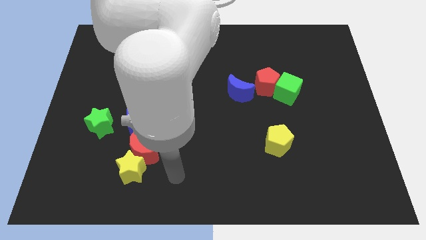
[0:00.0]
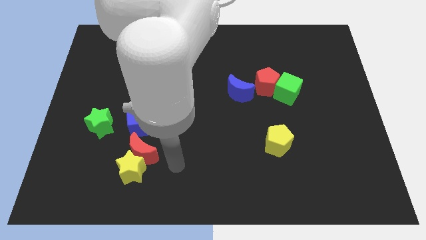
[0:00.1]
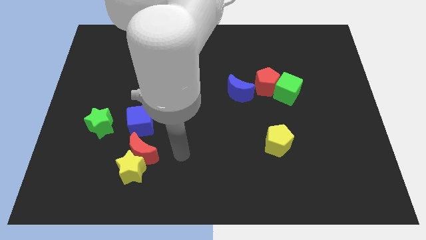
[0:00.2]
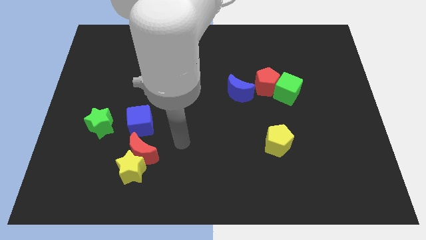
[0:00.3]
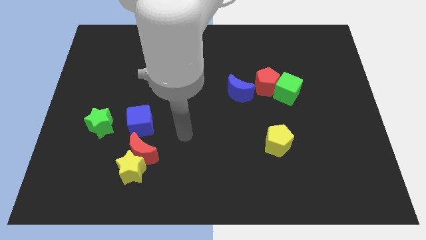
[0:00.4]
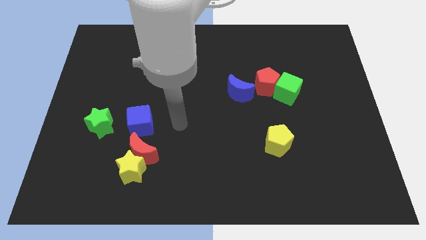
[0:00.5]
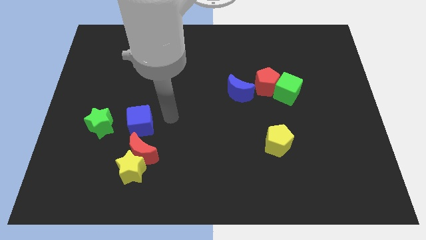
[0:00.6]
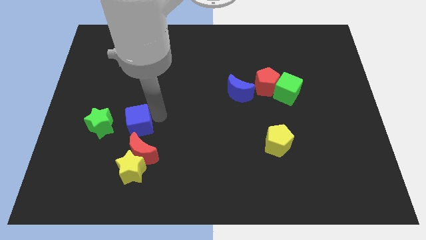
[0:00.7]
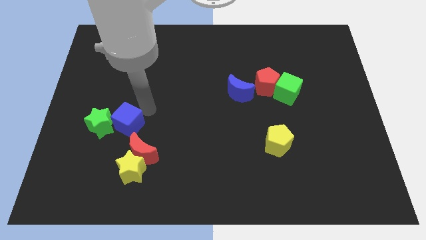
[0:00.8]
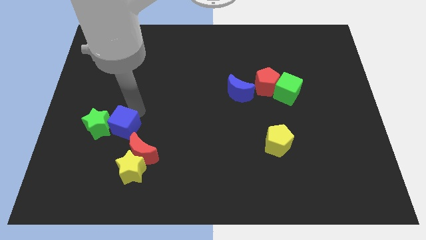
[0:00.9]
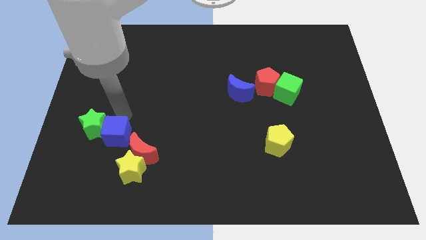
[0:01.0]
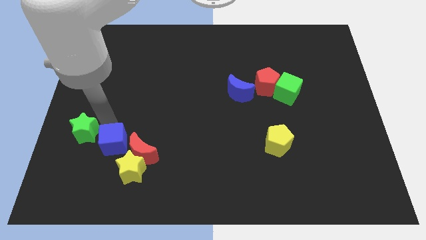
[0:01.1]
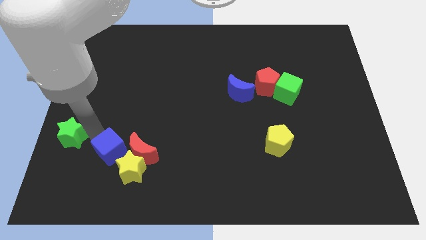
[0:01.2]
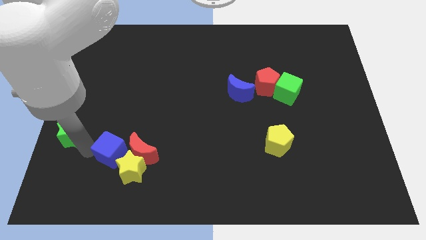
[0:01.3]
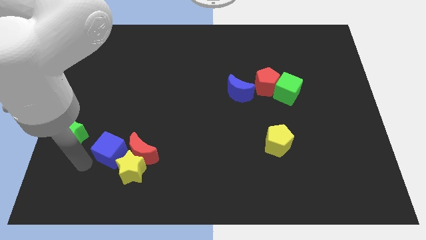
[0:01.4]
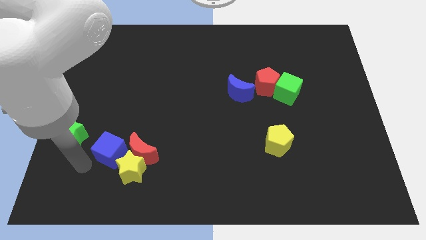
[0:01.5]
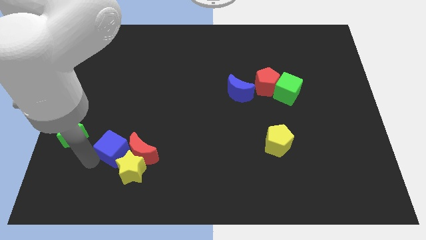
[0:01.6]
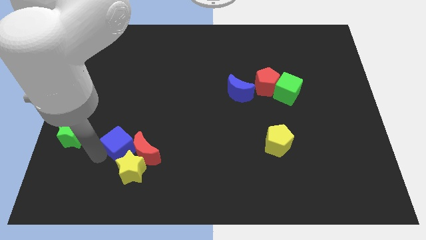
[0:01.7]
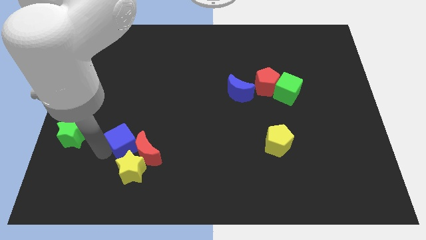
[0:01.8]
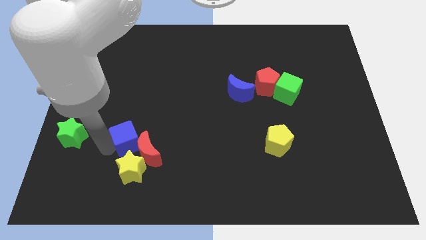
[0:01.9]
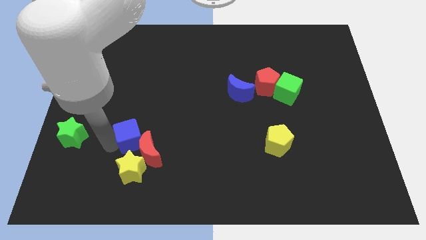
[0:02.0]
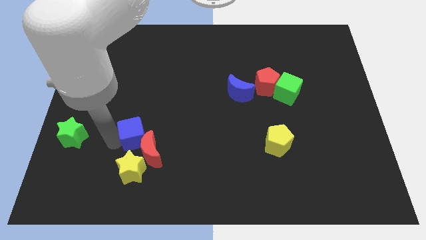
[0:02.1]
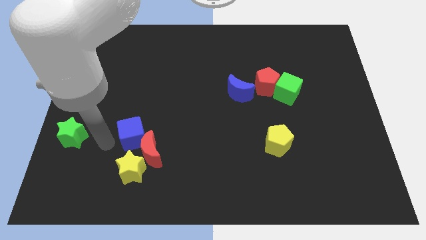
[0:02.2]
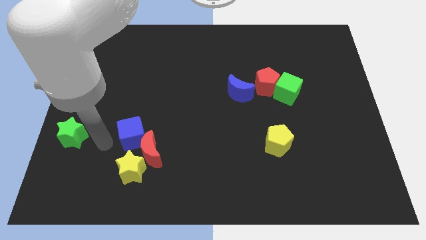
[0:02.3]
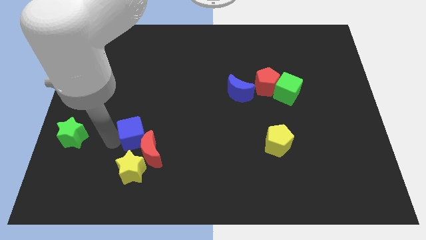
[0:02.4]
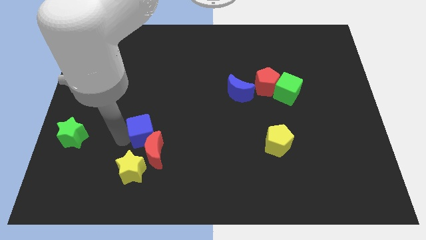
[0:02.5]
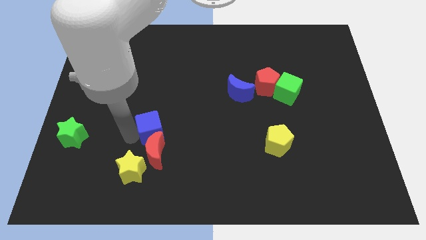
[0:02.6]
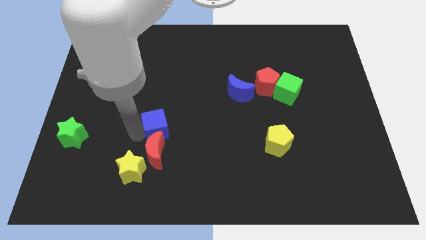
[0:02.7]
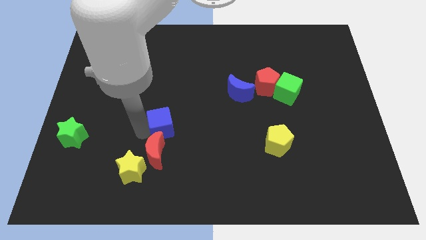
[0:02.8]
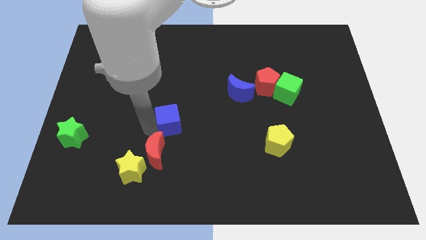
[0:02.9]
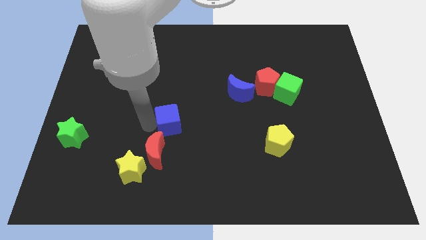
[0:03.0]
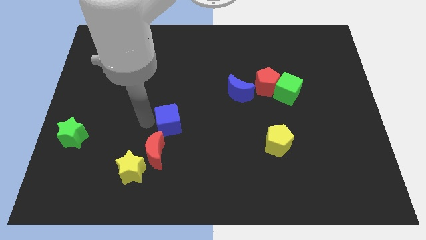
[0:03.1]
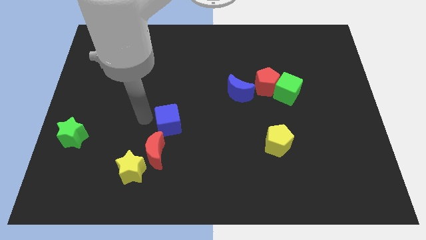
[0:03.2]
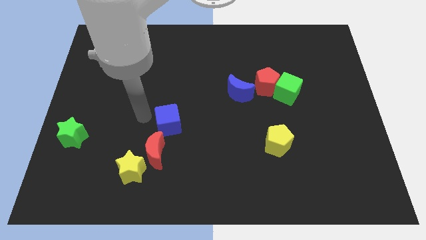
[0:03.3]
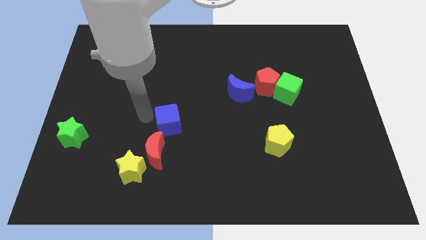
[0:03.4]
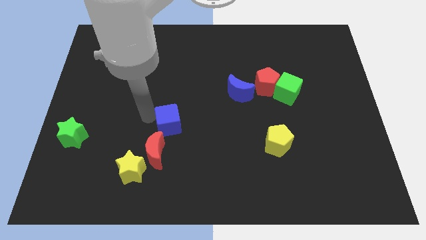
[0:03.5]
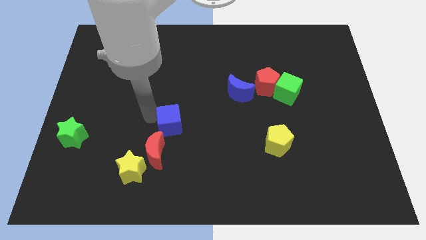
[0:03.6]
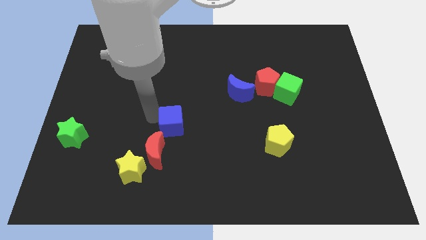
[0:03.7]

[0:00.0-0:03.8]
move the blue cube to the right slightly

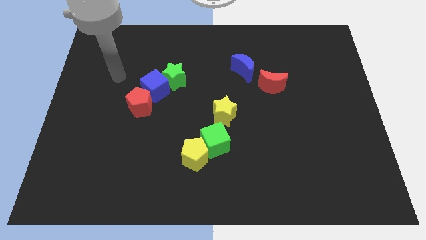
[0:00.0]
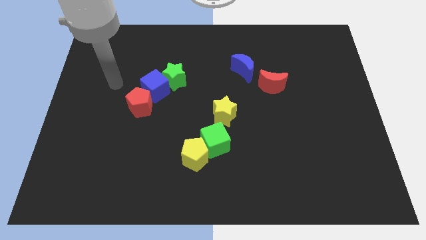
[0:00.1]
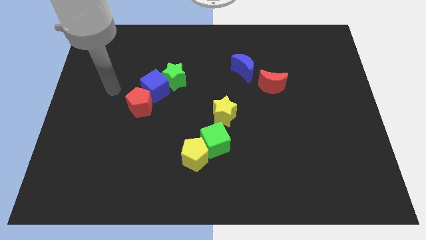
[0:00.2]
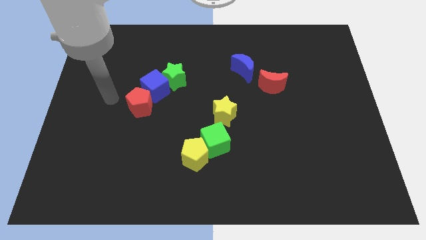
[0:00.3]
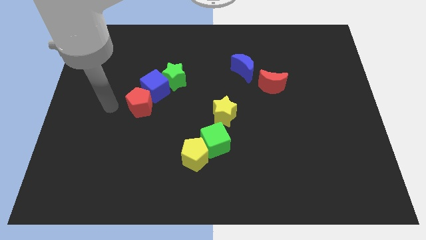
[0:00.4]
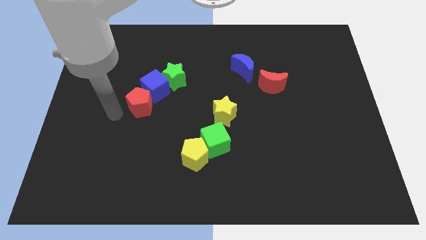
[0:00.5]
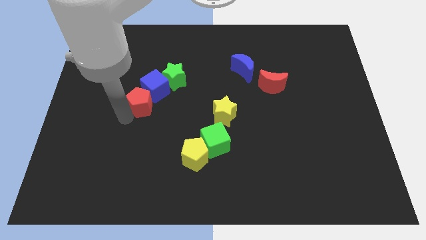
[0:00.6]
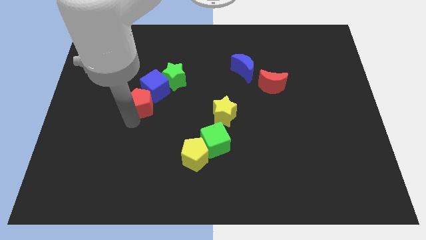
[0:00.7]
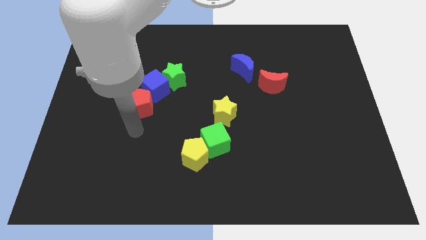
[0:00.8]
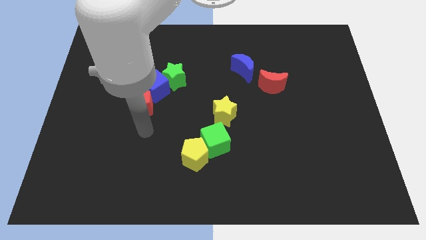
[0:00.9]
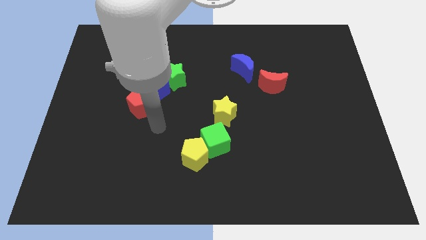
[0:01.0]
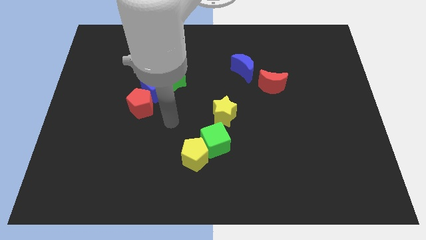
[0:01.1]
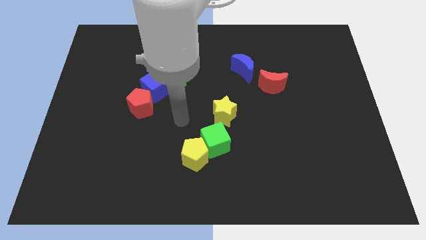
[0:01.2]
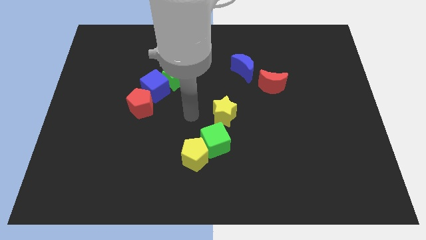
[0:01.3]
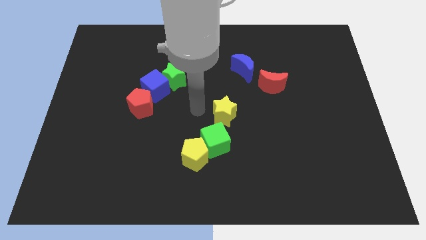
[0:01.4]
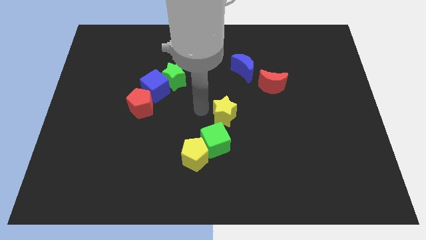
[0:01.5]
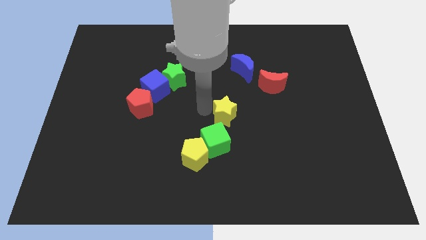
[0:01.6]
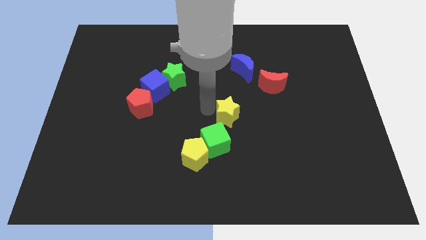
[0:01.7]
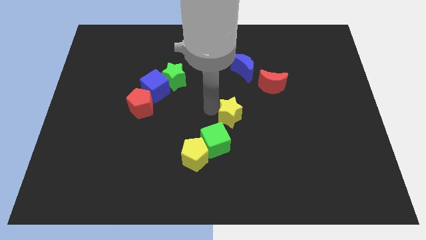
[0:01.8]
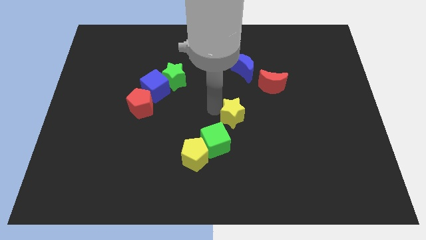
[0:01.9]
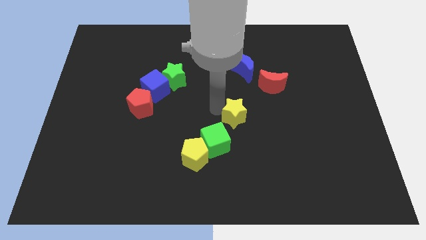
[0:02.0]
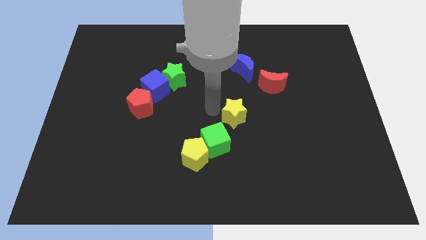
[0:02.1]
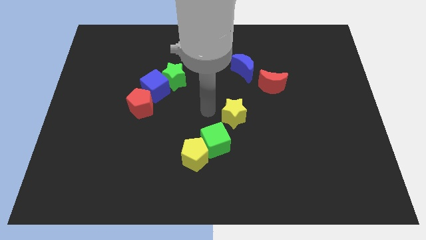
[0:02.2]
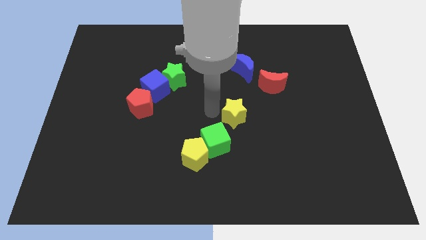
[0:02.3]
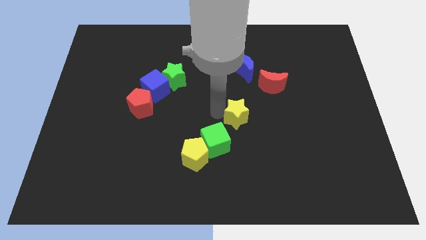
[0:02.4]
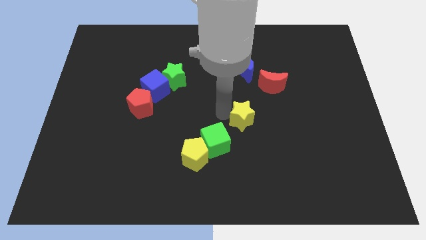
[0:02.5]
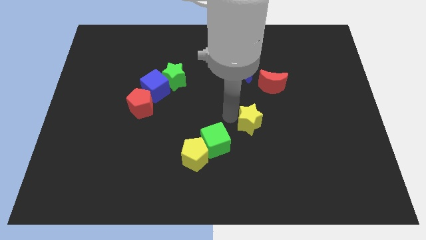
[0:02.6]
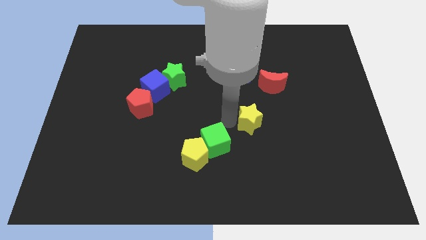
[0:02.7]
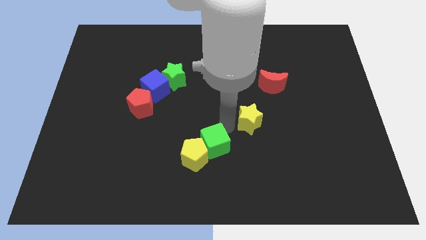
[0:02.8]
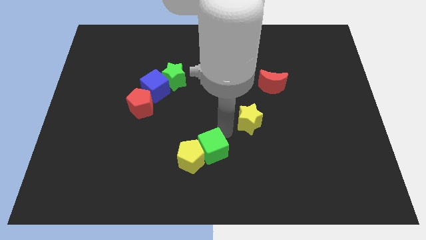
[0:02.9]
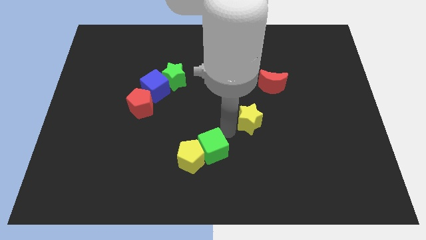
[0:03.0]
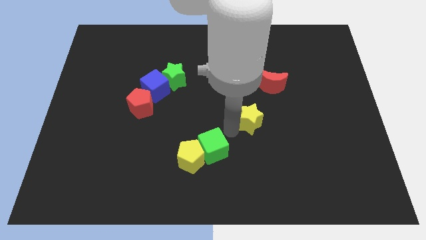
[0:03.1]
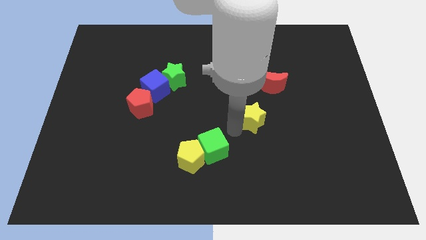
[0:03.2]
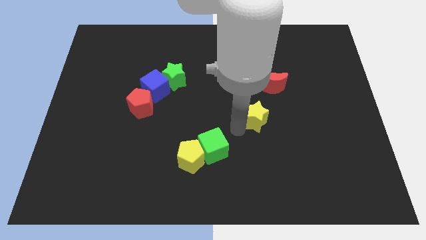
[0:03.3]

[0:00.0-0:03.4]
slide the yellow star a little bit right

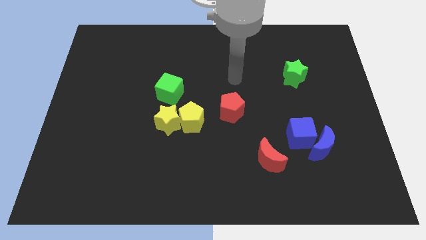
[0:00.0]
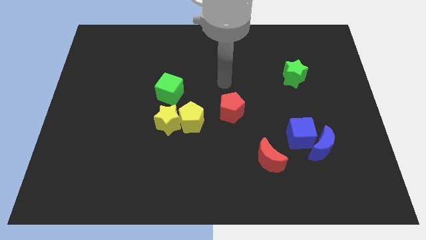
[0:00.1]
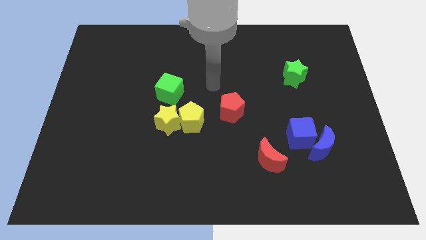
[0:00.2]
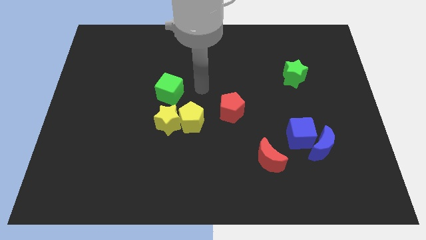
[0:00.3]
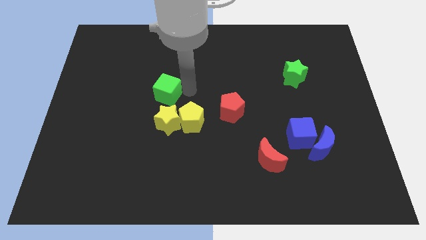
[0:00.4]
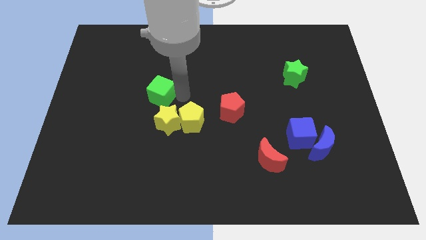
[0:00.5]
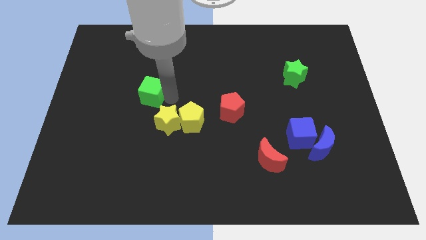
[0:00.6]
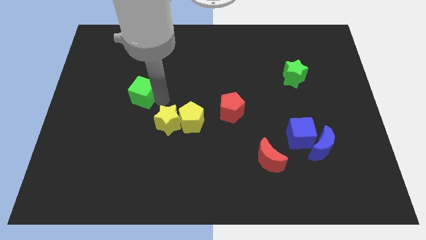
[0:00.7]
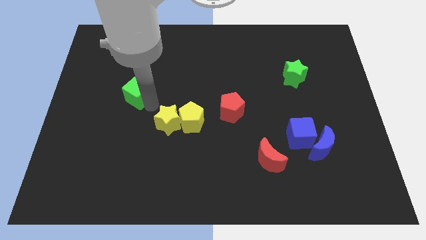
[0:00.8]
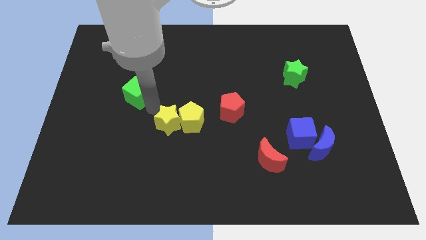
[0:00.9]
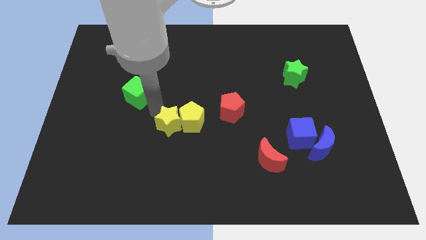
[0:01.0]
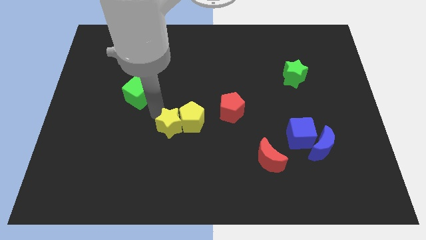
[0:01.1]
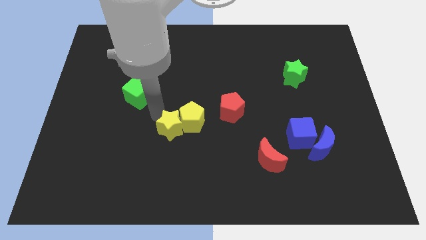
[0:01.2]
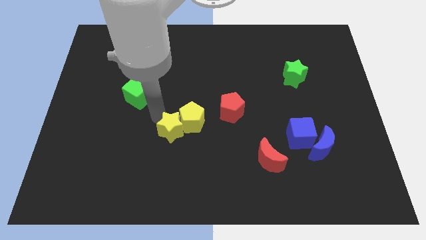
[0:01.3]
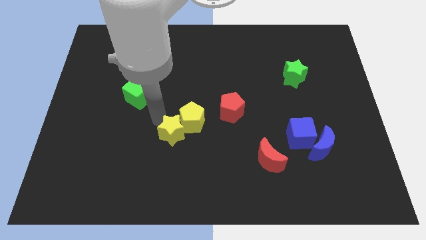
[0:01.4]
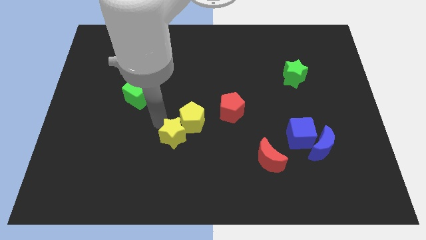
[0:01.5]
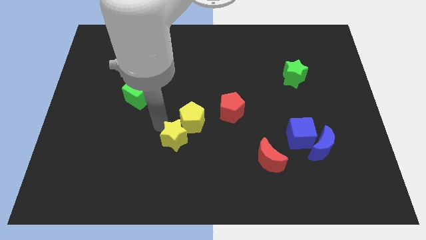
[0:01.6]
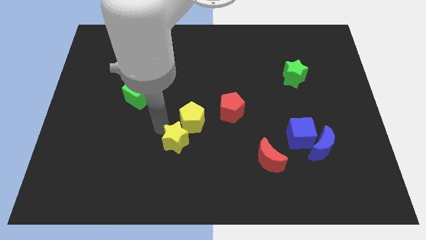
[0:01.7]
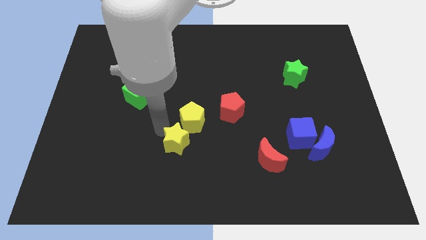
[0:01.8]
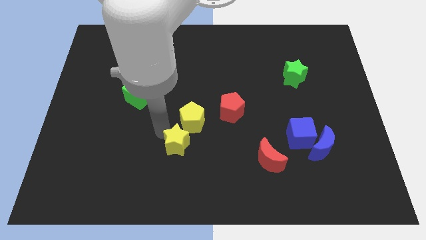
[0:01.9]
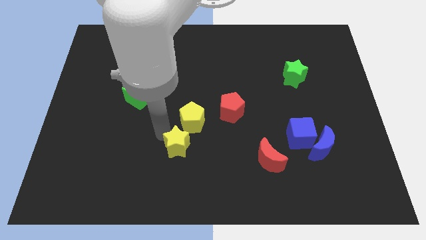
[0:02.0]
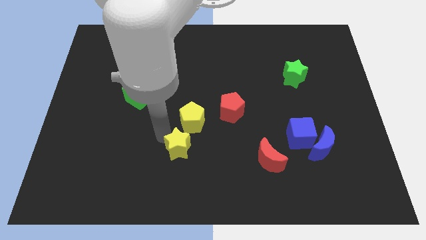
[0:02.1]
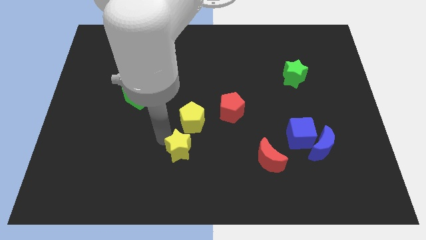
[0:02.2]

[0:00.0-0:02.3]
slide the yellow star downwards and right slightly
